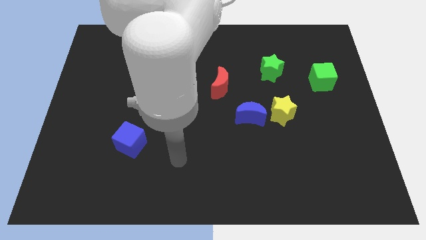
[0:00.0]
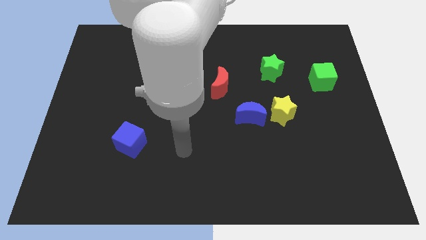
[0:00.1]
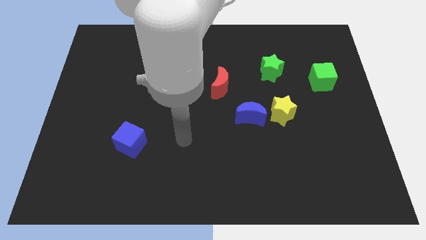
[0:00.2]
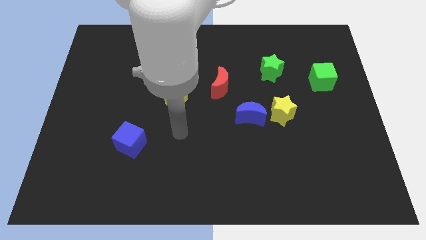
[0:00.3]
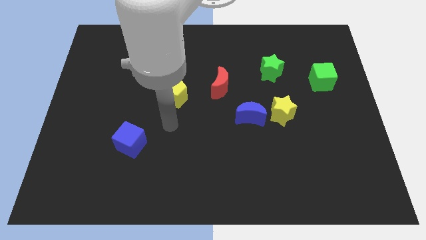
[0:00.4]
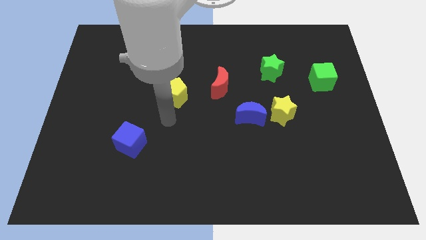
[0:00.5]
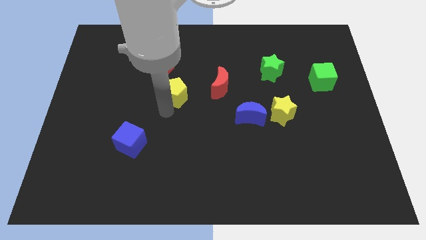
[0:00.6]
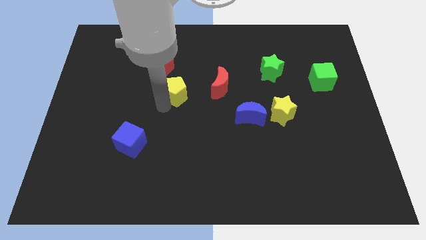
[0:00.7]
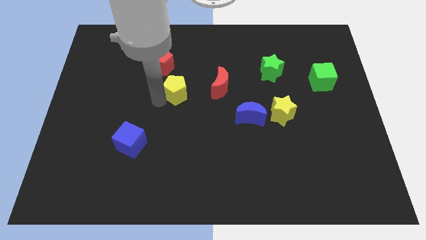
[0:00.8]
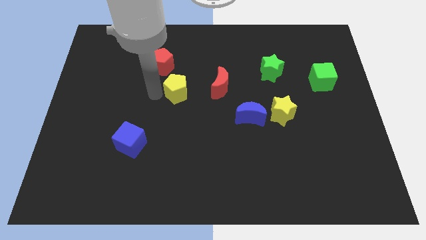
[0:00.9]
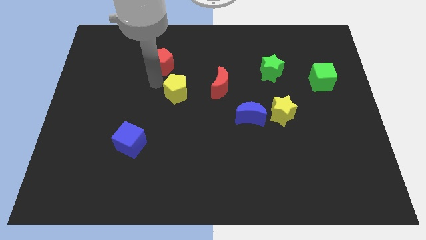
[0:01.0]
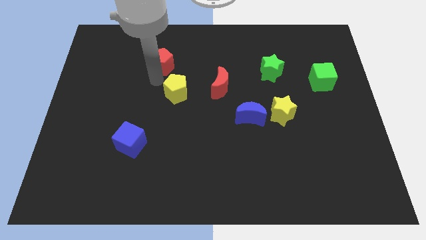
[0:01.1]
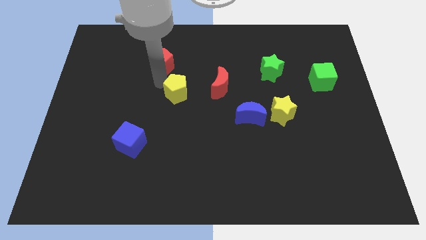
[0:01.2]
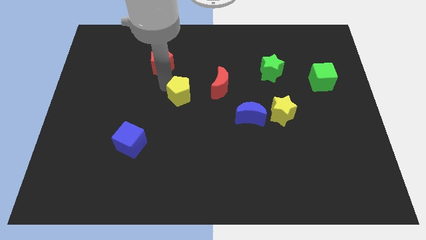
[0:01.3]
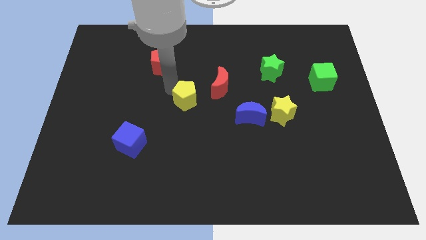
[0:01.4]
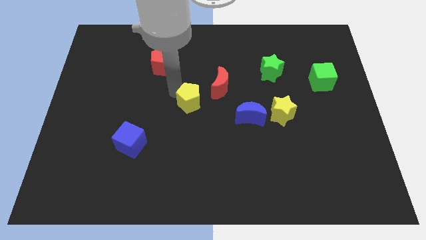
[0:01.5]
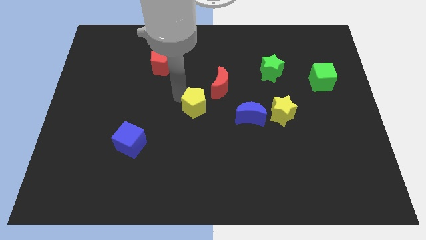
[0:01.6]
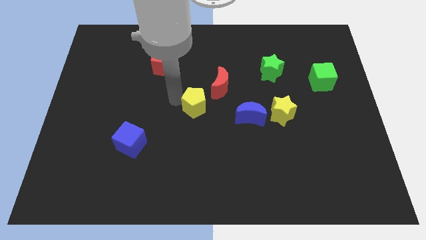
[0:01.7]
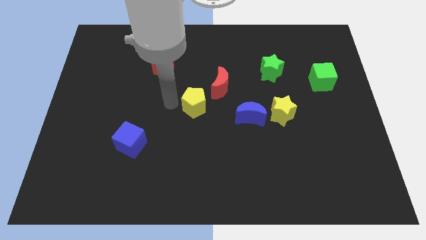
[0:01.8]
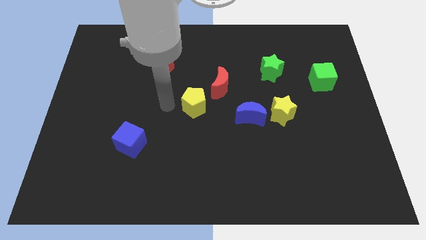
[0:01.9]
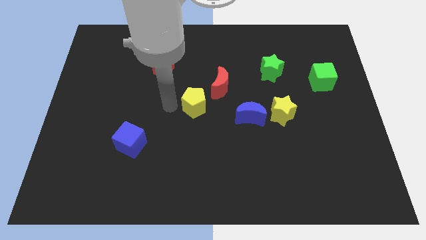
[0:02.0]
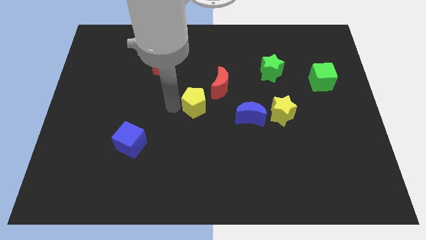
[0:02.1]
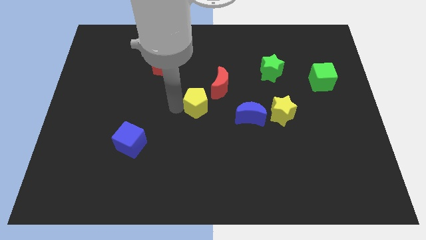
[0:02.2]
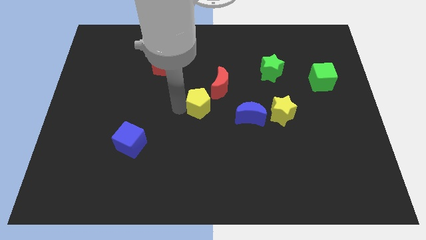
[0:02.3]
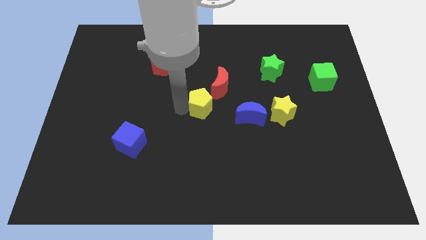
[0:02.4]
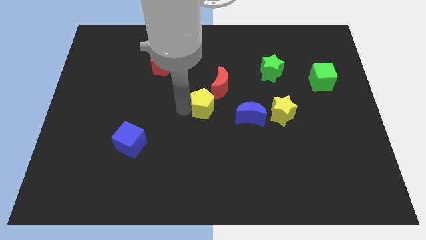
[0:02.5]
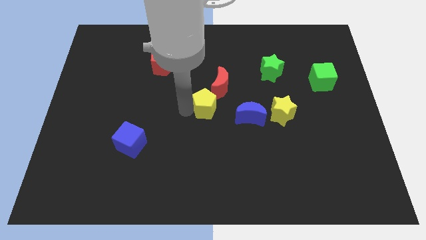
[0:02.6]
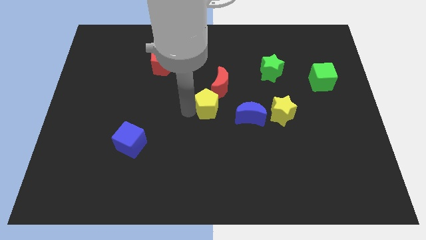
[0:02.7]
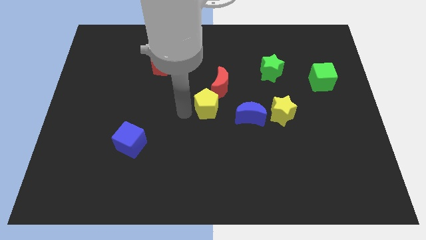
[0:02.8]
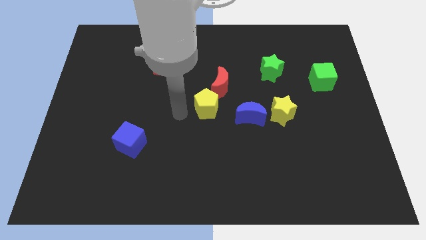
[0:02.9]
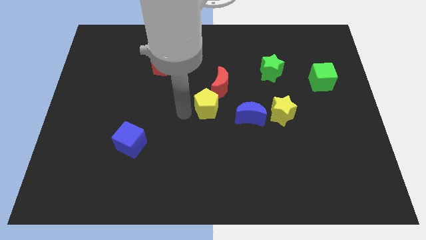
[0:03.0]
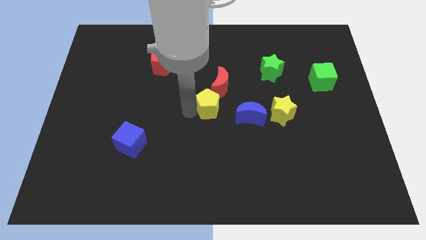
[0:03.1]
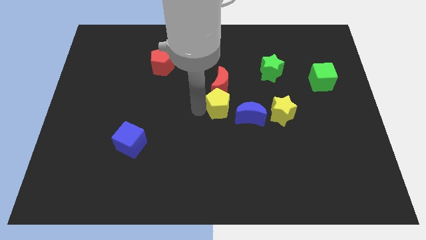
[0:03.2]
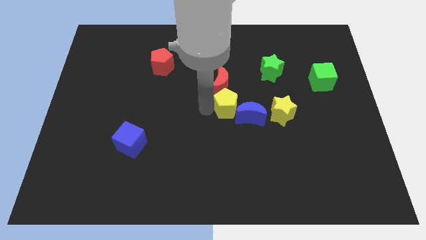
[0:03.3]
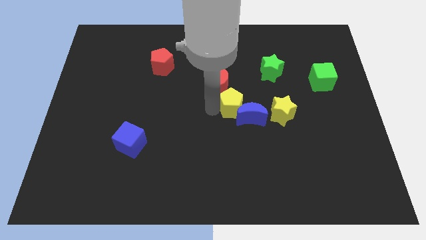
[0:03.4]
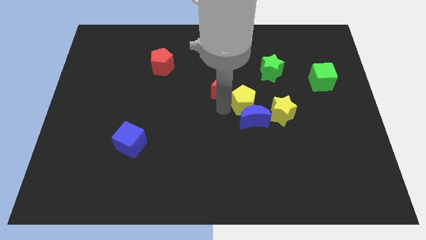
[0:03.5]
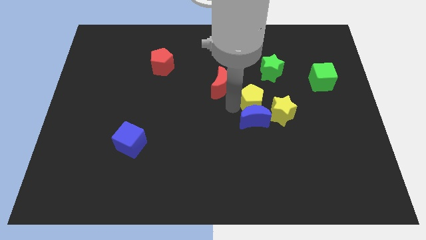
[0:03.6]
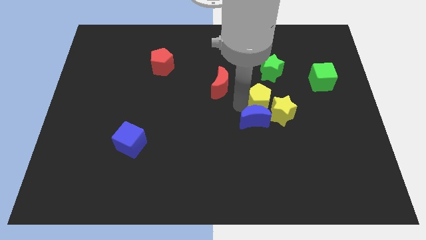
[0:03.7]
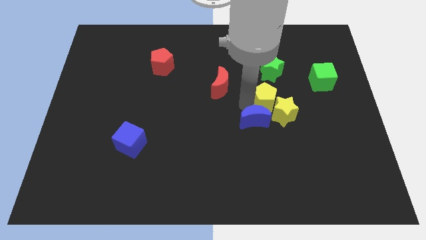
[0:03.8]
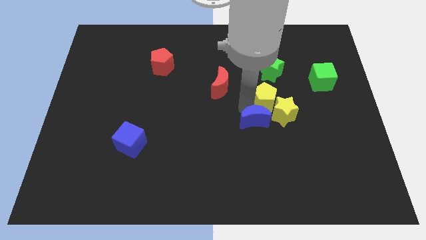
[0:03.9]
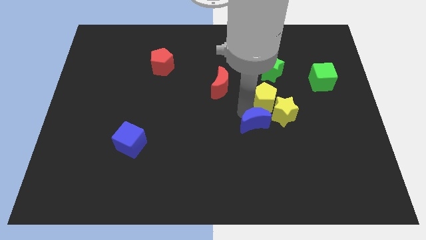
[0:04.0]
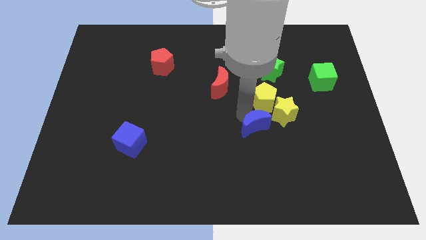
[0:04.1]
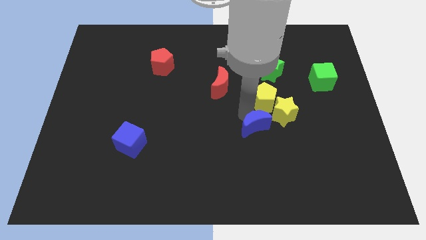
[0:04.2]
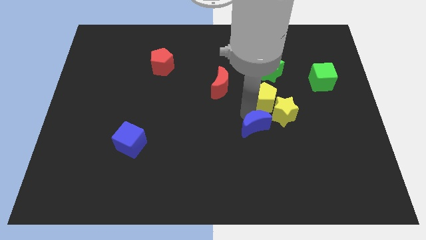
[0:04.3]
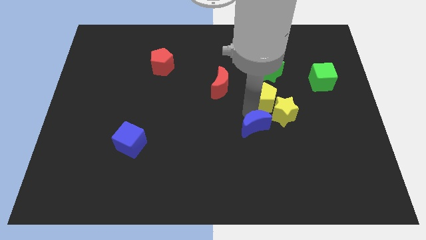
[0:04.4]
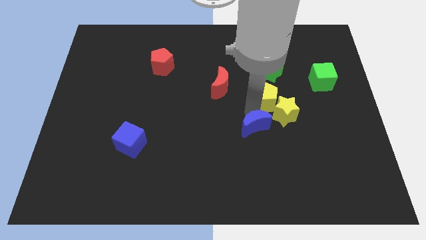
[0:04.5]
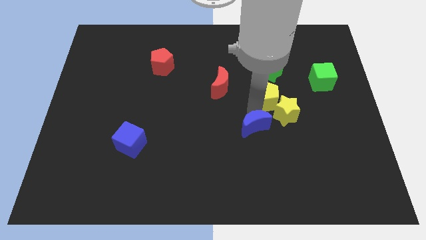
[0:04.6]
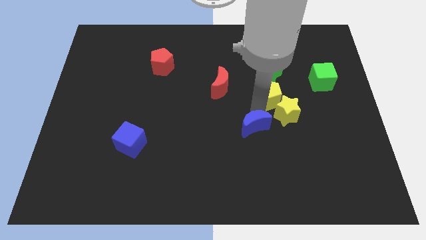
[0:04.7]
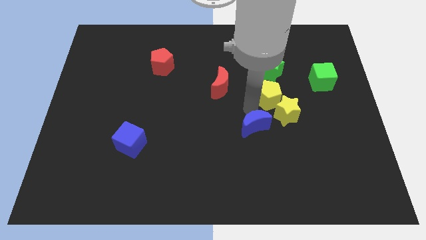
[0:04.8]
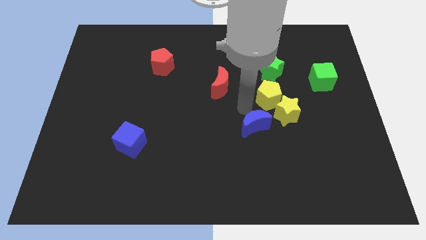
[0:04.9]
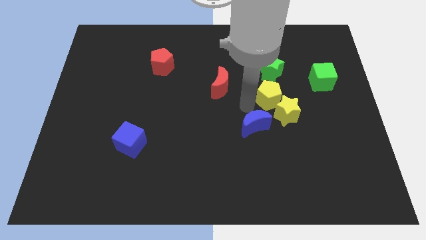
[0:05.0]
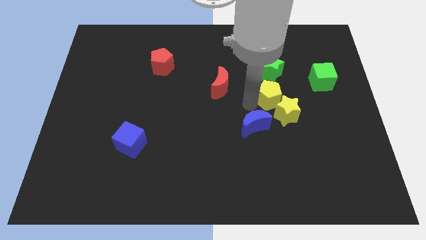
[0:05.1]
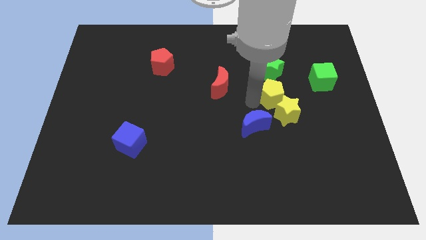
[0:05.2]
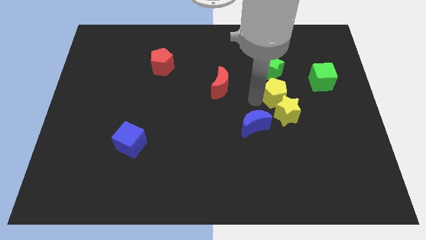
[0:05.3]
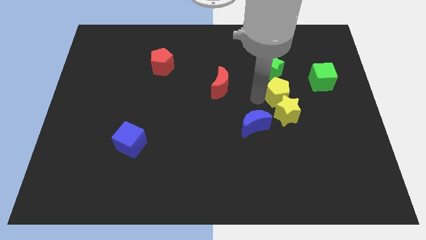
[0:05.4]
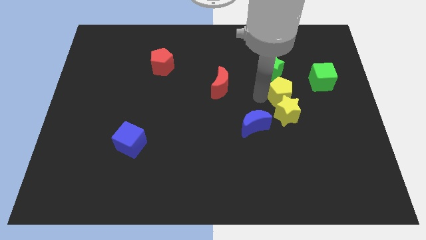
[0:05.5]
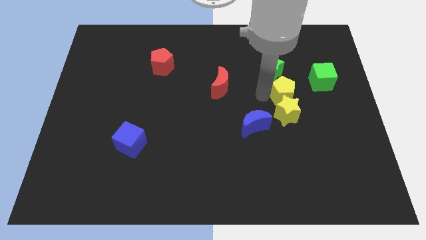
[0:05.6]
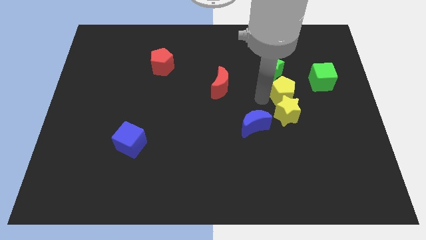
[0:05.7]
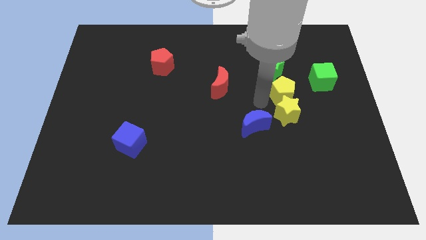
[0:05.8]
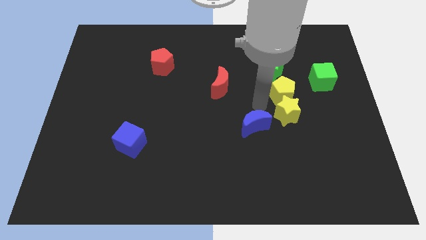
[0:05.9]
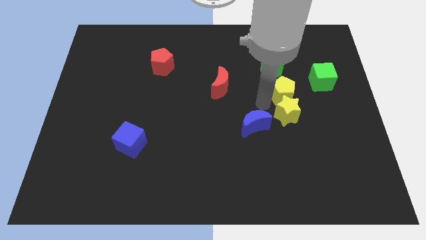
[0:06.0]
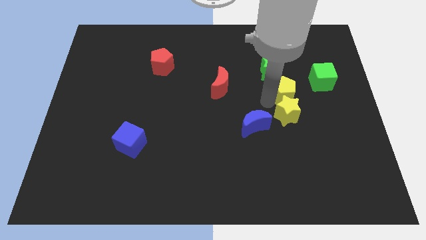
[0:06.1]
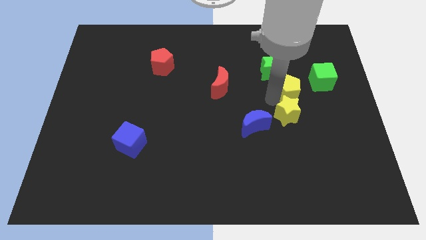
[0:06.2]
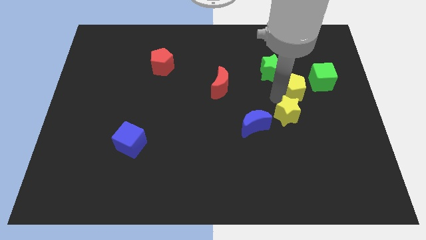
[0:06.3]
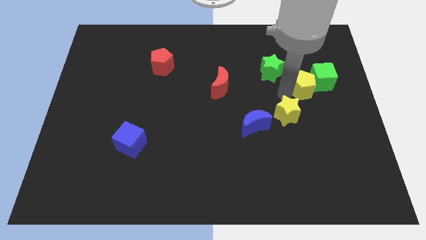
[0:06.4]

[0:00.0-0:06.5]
move the yellow pentagon to the green cube

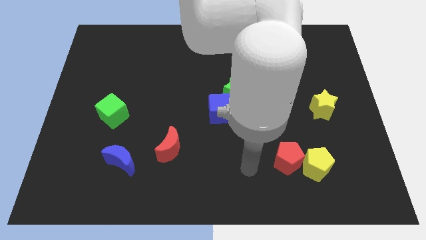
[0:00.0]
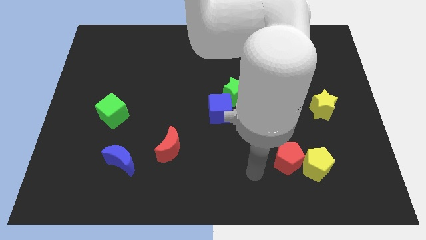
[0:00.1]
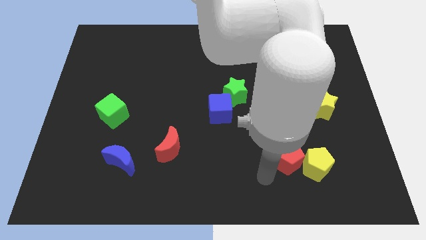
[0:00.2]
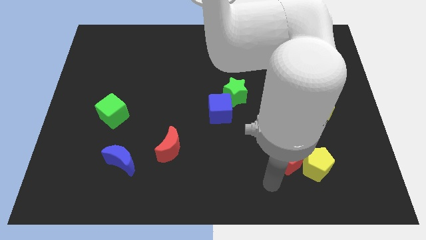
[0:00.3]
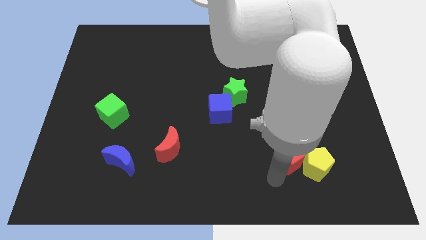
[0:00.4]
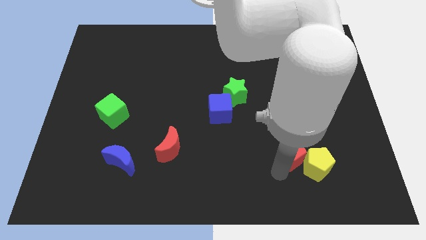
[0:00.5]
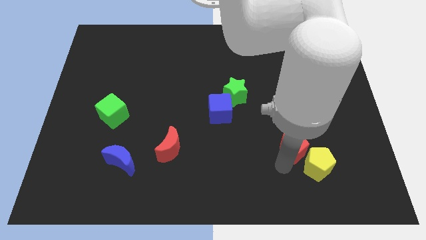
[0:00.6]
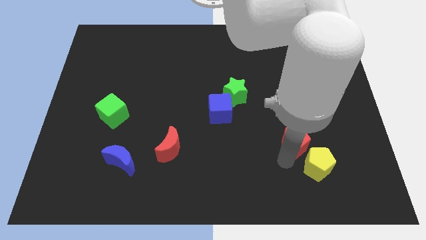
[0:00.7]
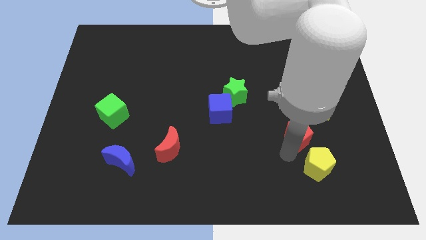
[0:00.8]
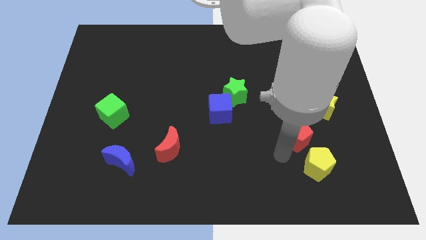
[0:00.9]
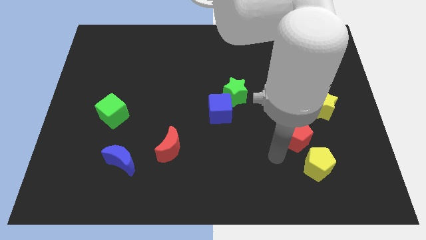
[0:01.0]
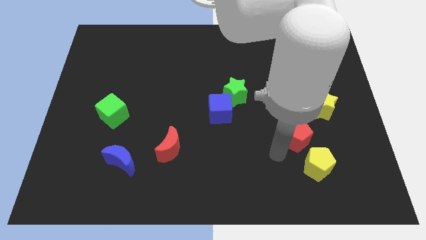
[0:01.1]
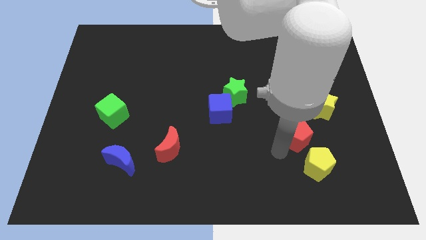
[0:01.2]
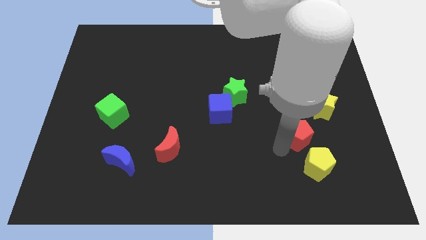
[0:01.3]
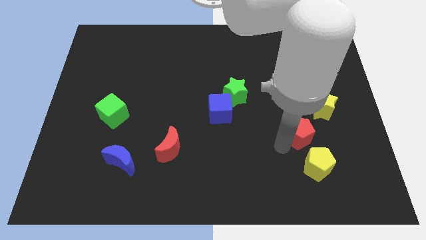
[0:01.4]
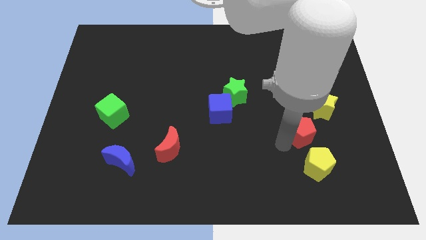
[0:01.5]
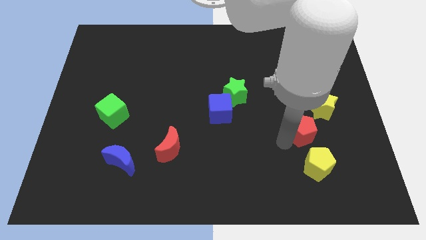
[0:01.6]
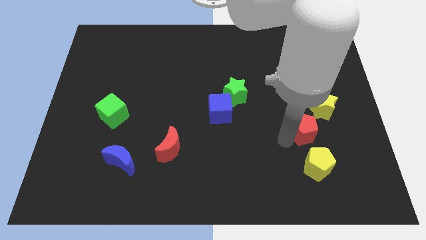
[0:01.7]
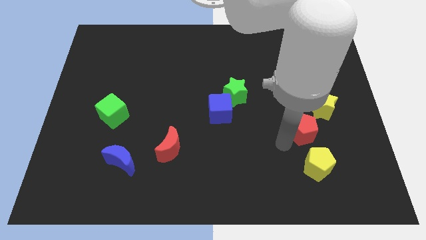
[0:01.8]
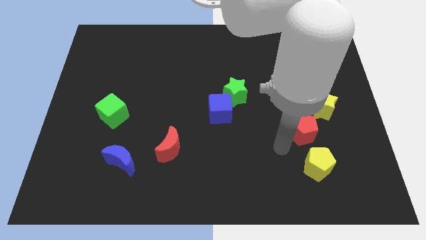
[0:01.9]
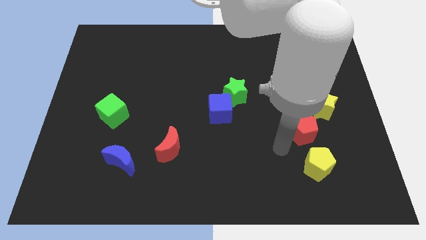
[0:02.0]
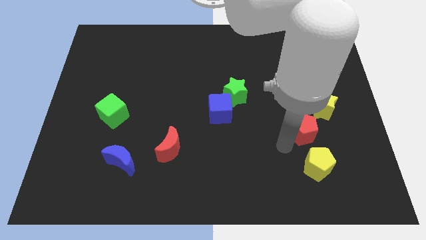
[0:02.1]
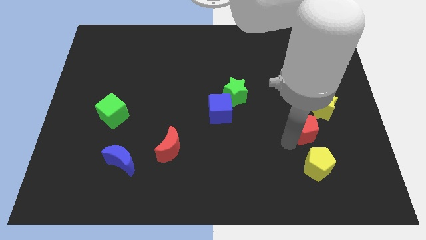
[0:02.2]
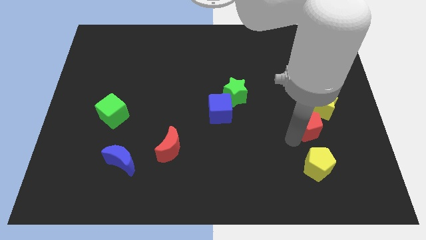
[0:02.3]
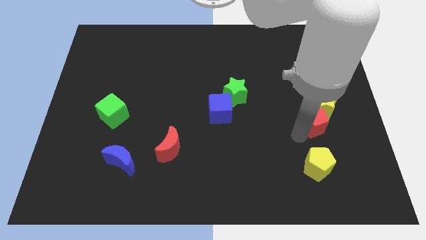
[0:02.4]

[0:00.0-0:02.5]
move the red pentagon to the yellow star
